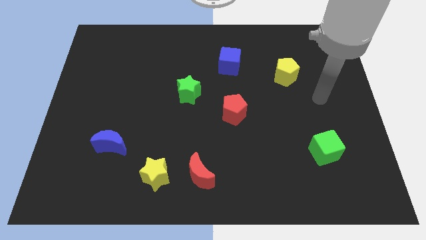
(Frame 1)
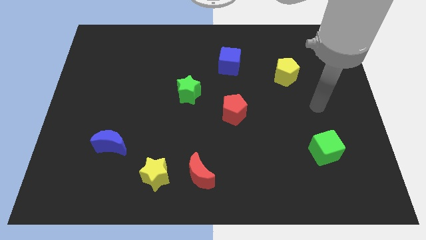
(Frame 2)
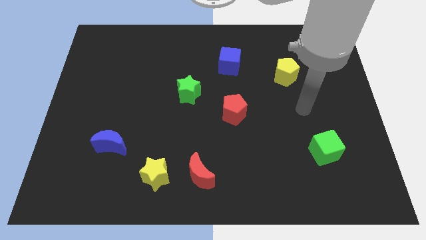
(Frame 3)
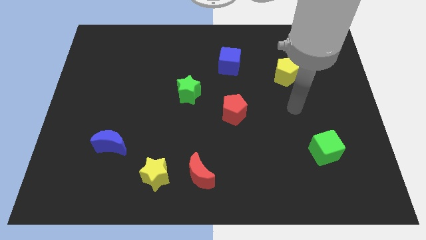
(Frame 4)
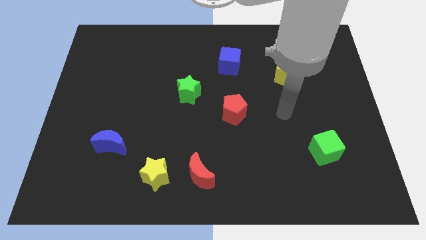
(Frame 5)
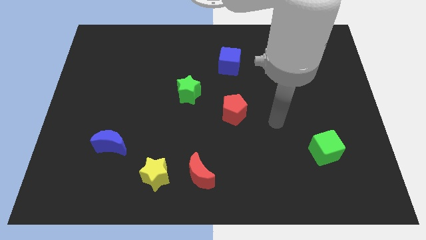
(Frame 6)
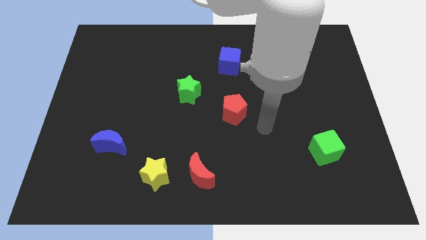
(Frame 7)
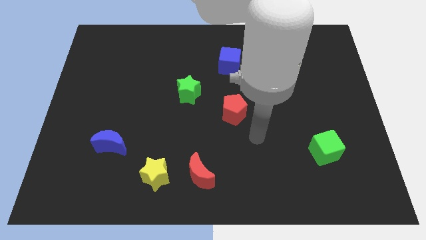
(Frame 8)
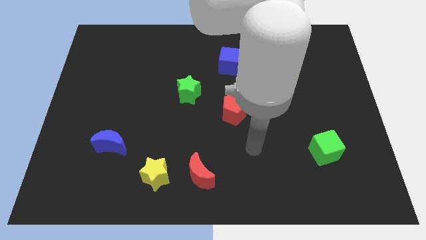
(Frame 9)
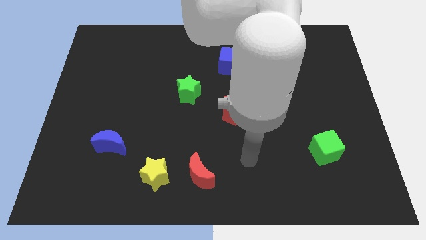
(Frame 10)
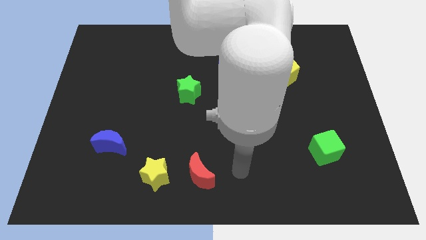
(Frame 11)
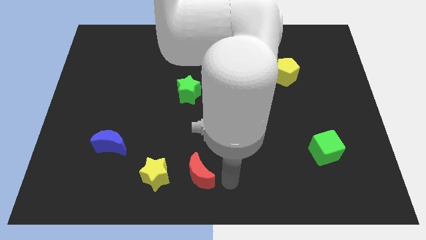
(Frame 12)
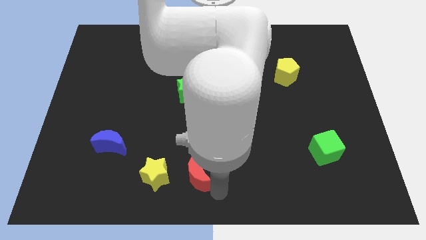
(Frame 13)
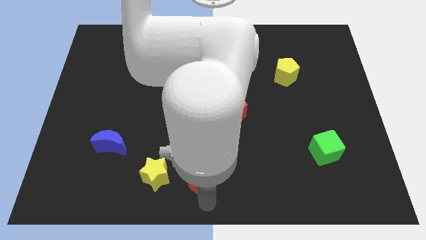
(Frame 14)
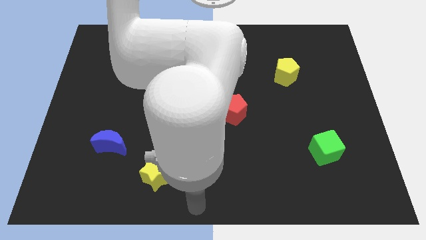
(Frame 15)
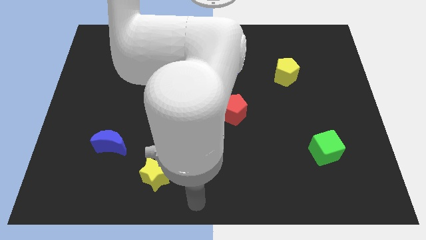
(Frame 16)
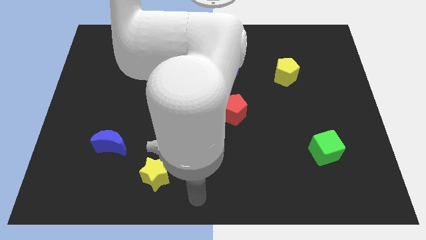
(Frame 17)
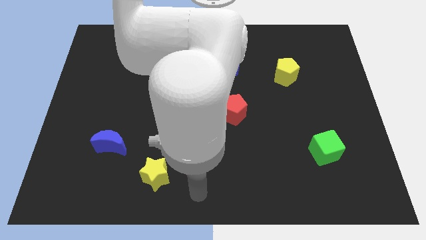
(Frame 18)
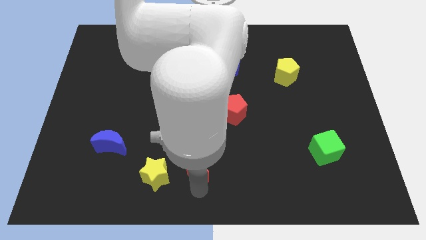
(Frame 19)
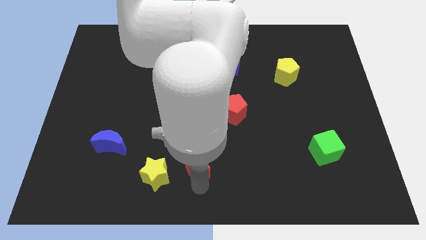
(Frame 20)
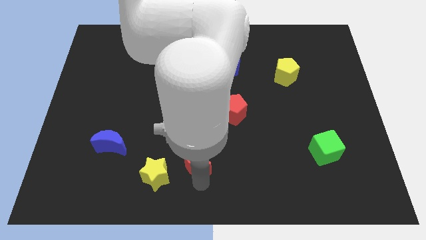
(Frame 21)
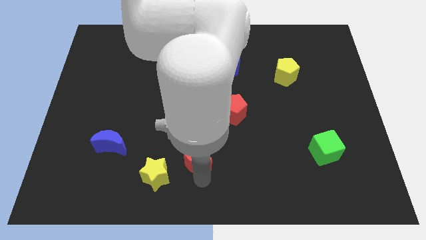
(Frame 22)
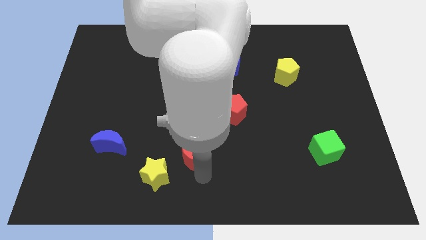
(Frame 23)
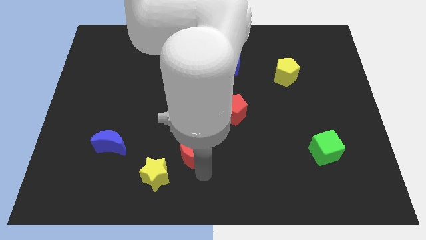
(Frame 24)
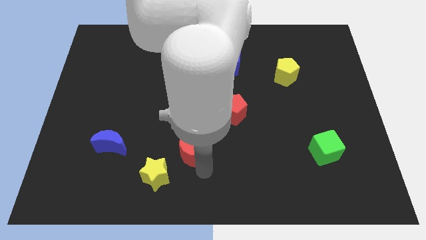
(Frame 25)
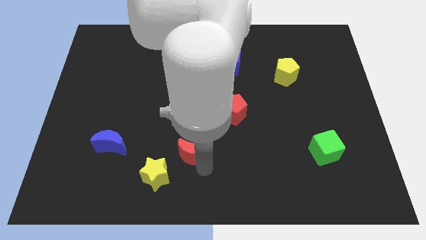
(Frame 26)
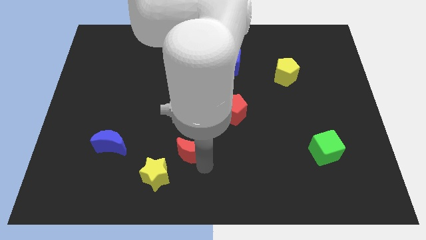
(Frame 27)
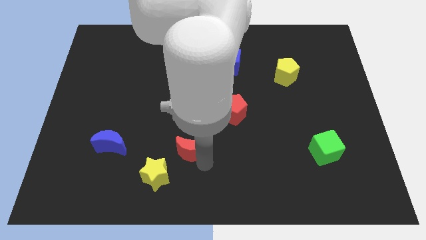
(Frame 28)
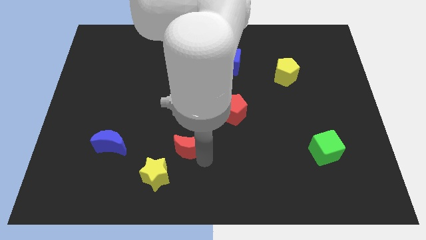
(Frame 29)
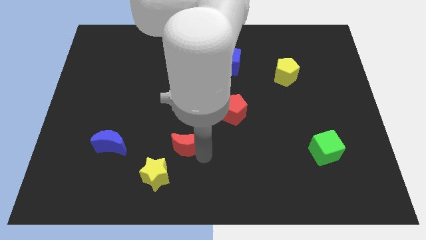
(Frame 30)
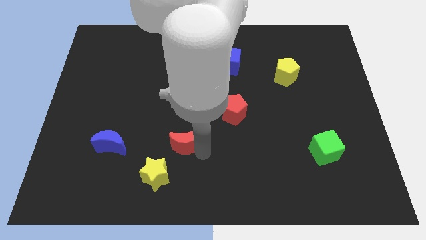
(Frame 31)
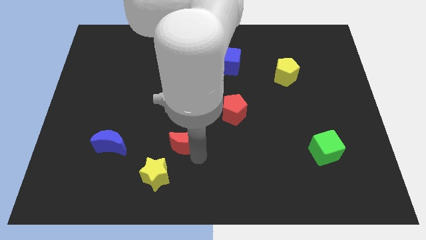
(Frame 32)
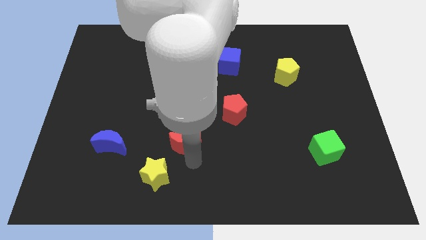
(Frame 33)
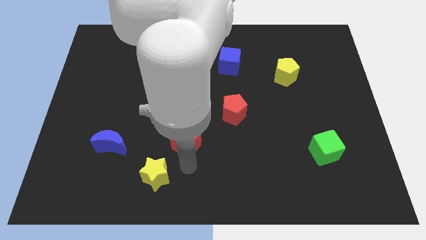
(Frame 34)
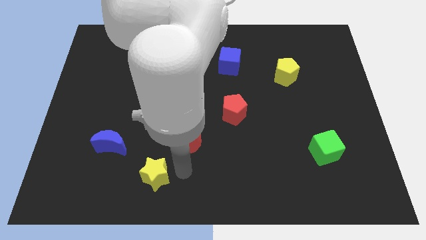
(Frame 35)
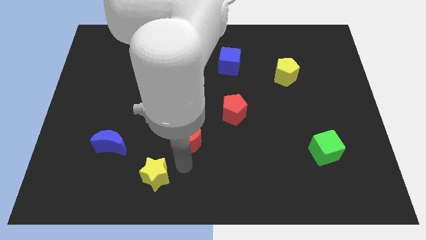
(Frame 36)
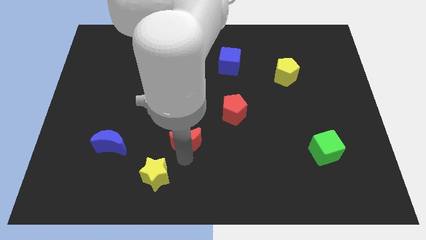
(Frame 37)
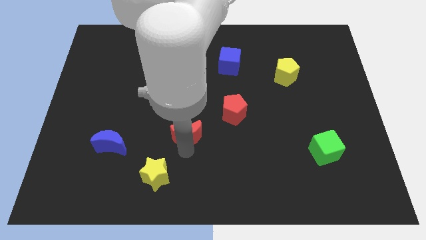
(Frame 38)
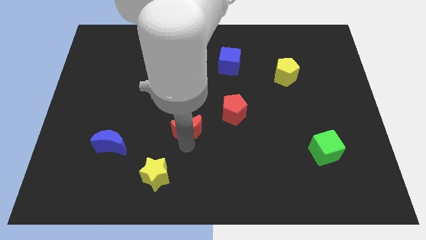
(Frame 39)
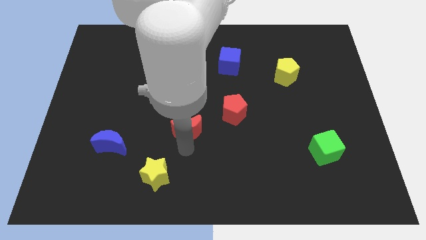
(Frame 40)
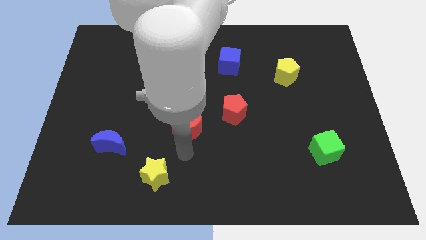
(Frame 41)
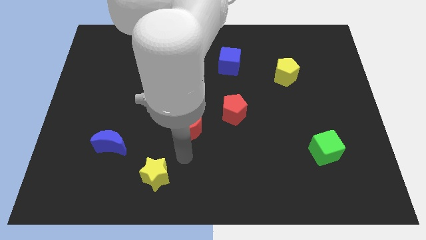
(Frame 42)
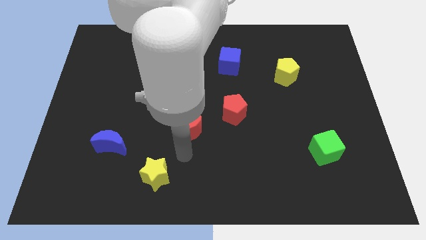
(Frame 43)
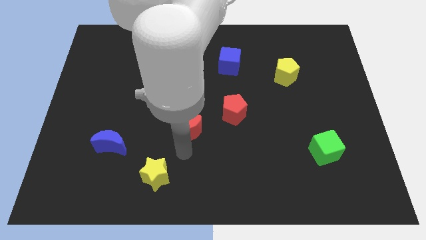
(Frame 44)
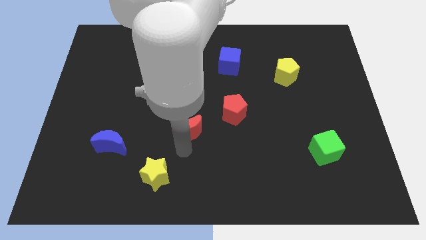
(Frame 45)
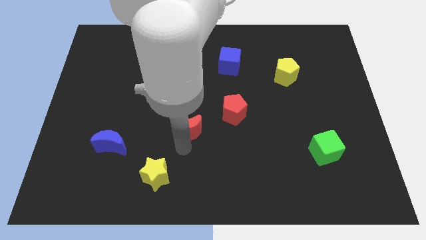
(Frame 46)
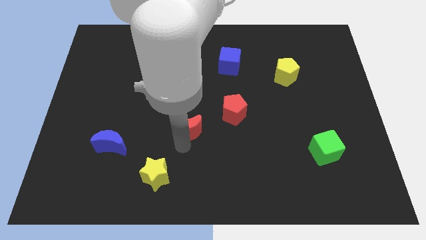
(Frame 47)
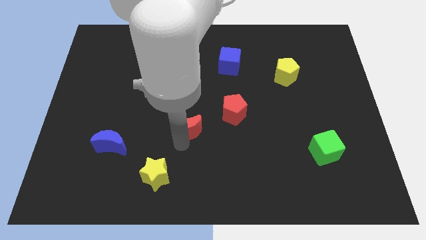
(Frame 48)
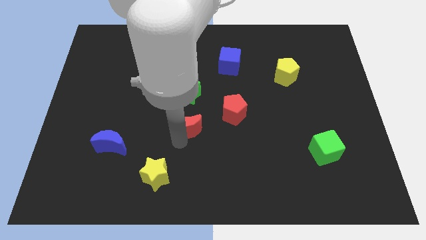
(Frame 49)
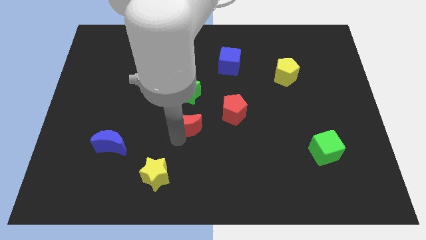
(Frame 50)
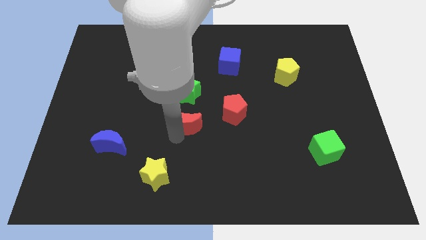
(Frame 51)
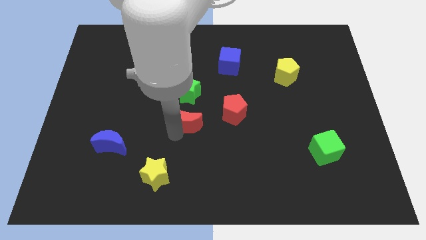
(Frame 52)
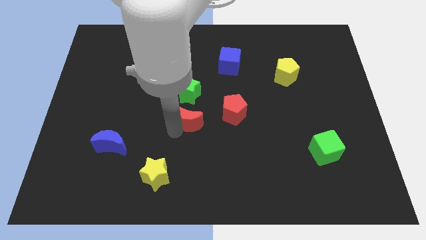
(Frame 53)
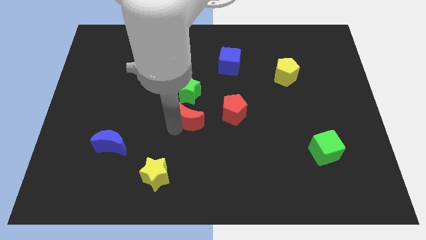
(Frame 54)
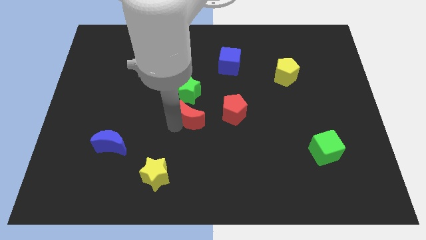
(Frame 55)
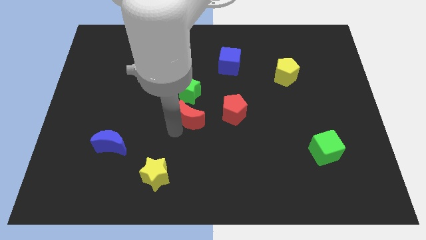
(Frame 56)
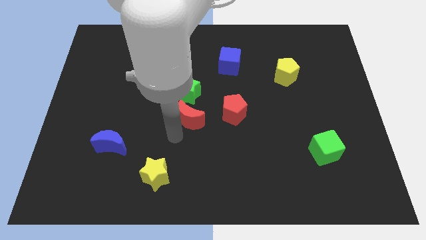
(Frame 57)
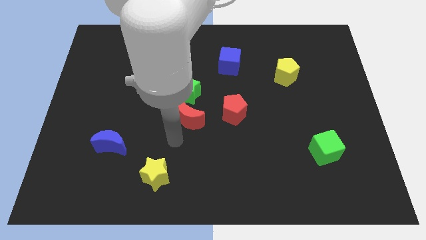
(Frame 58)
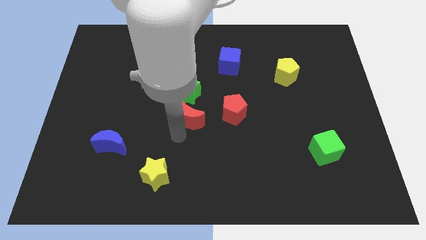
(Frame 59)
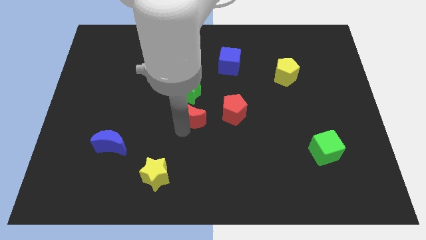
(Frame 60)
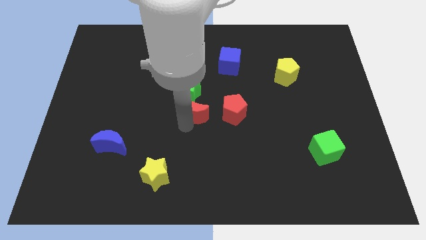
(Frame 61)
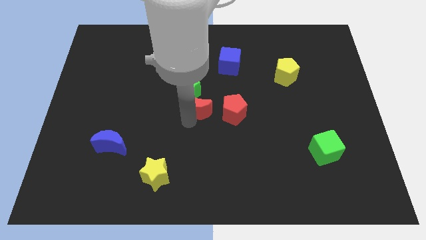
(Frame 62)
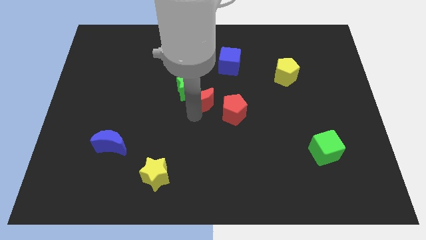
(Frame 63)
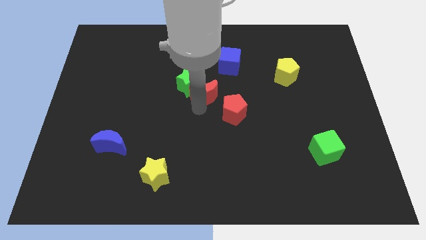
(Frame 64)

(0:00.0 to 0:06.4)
move the red moon to the bottom left side of the blue cube
